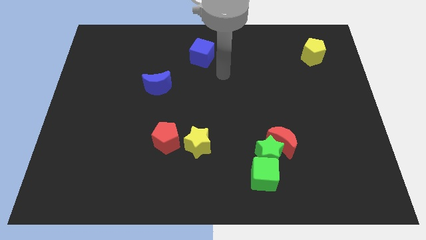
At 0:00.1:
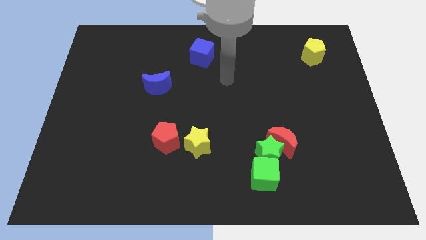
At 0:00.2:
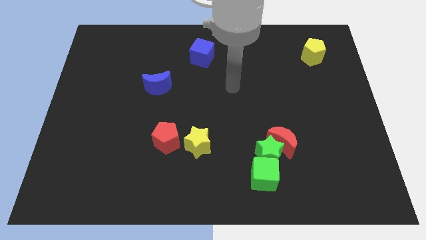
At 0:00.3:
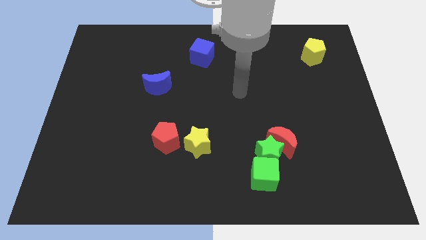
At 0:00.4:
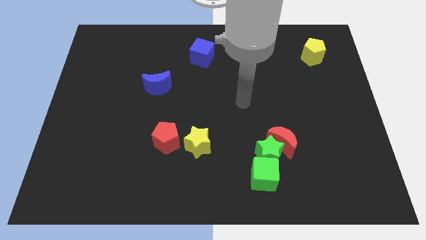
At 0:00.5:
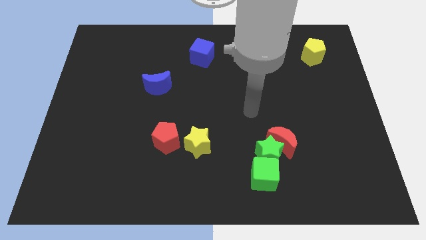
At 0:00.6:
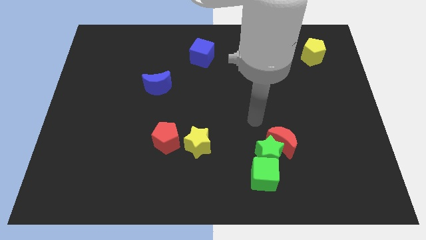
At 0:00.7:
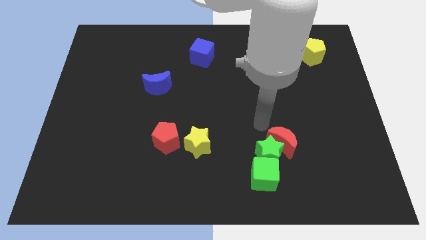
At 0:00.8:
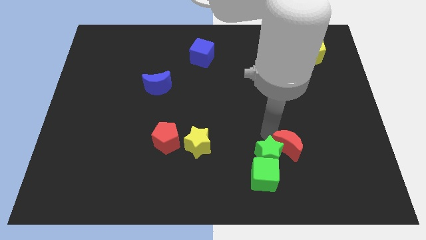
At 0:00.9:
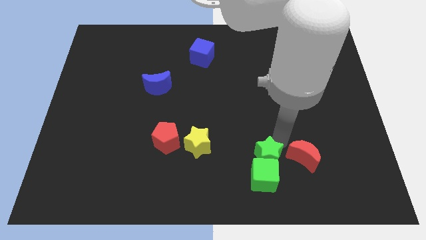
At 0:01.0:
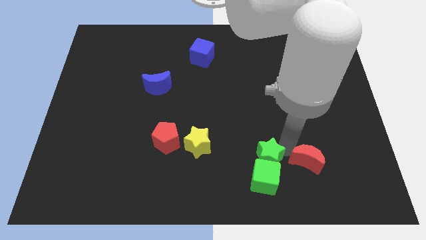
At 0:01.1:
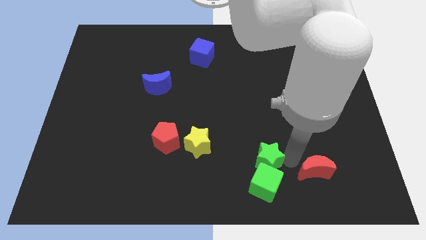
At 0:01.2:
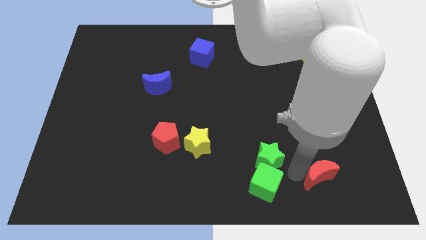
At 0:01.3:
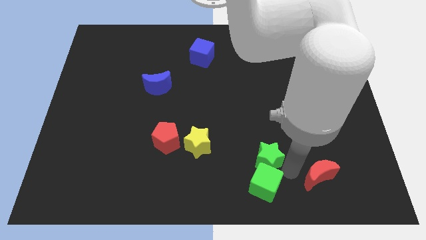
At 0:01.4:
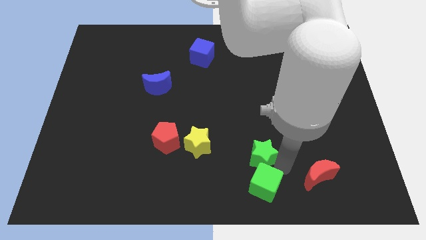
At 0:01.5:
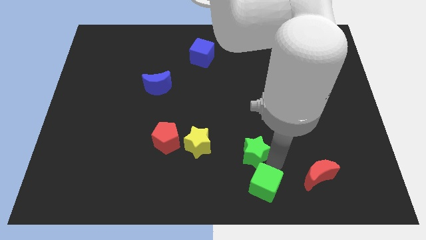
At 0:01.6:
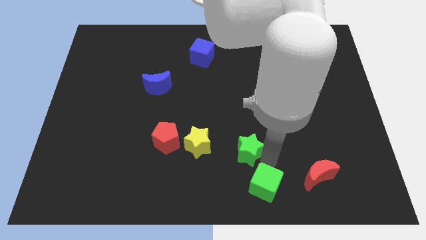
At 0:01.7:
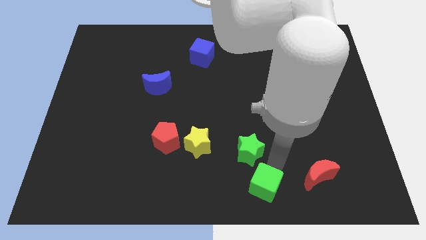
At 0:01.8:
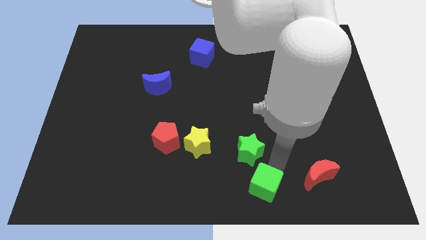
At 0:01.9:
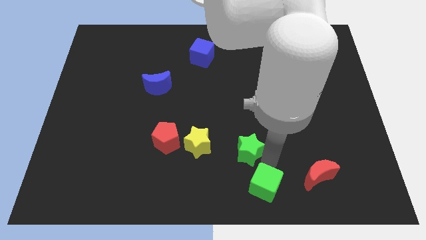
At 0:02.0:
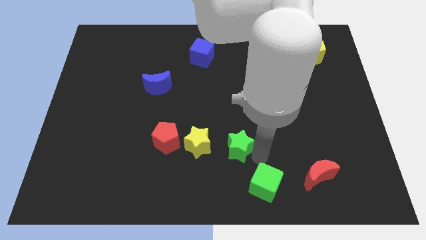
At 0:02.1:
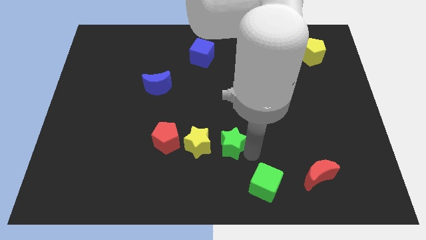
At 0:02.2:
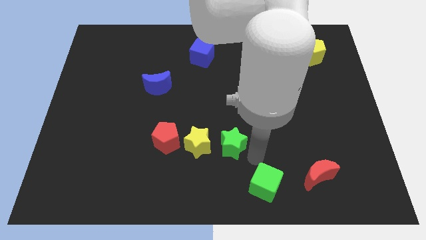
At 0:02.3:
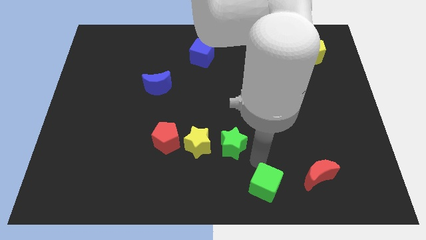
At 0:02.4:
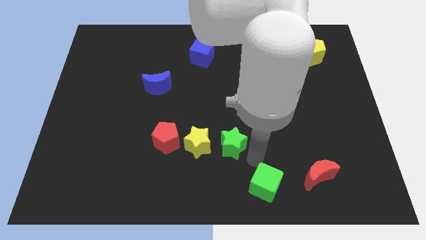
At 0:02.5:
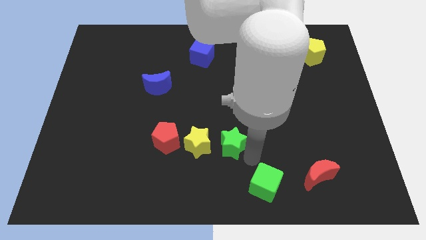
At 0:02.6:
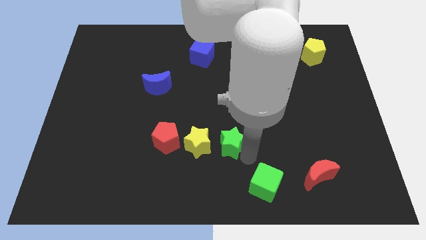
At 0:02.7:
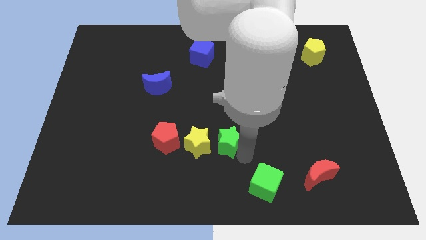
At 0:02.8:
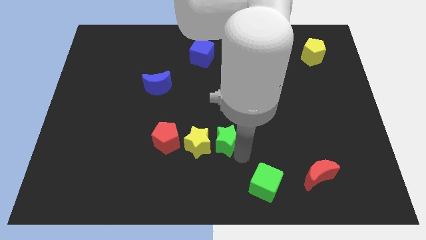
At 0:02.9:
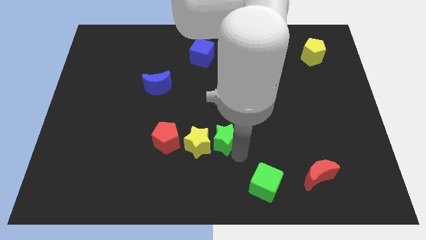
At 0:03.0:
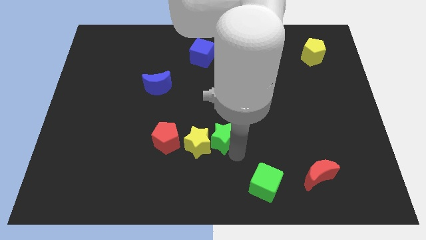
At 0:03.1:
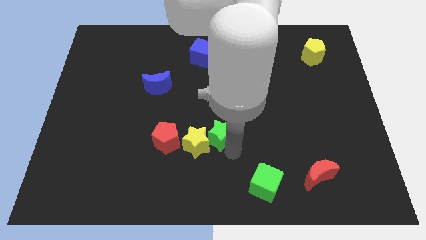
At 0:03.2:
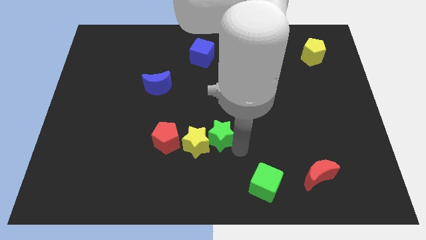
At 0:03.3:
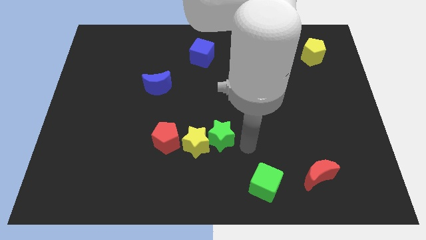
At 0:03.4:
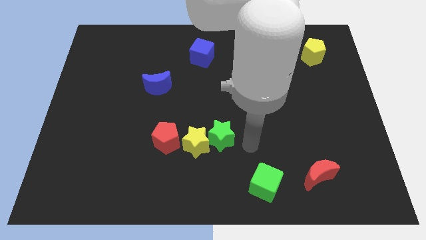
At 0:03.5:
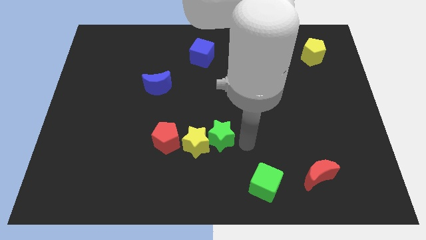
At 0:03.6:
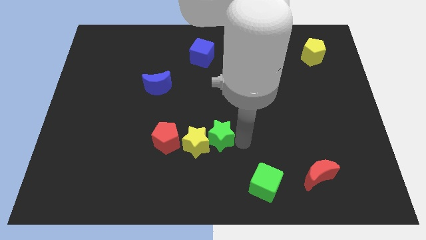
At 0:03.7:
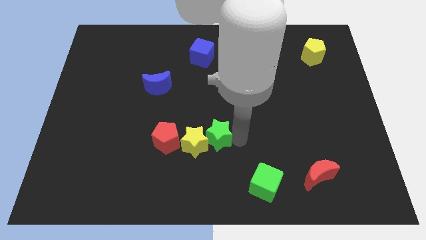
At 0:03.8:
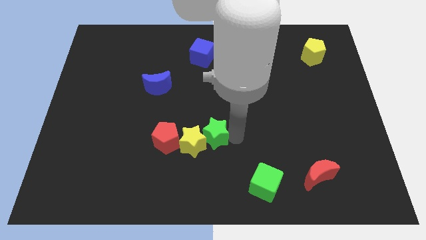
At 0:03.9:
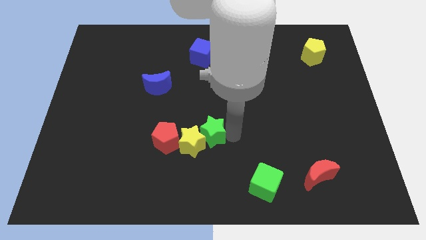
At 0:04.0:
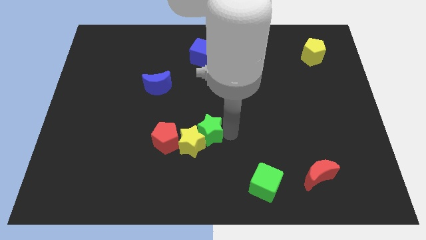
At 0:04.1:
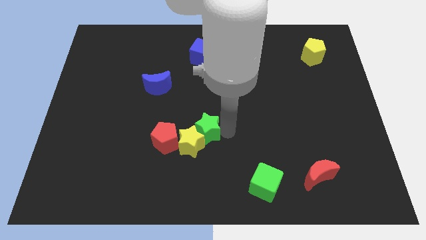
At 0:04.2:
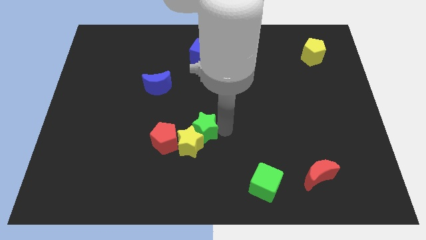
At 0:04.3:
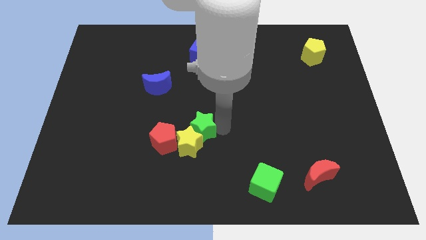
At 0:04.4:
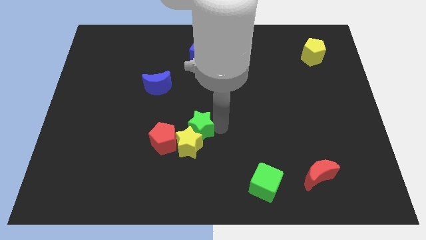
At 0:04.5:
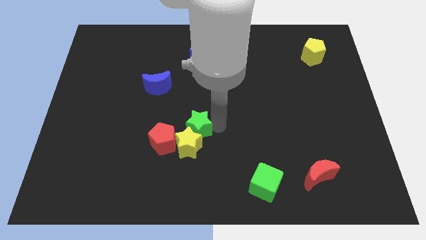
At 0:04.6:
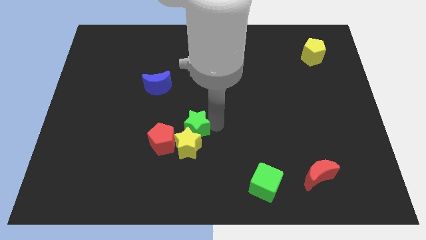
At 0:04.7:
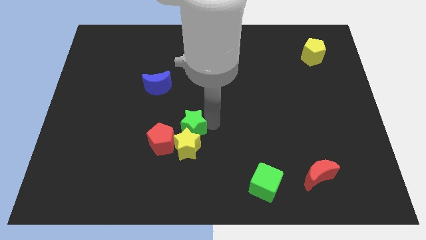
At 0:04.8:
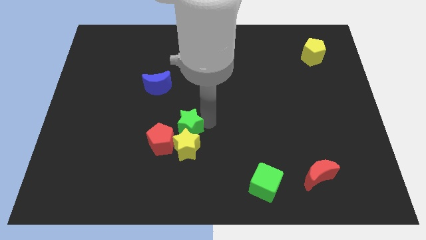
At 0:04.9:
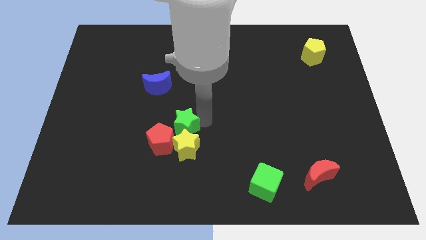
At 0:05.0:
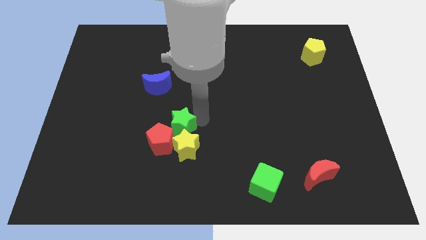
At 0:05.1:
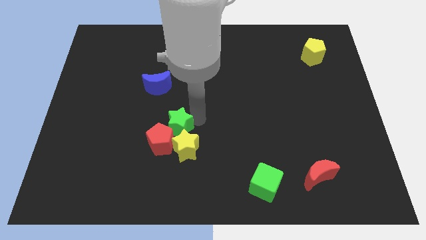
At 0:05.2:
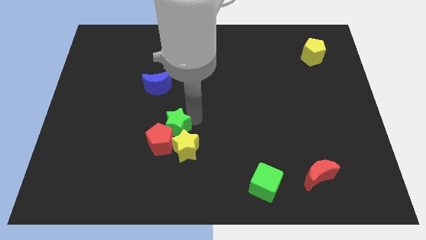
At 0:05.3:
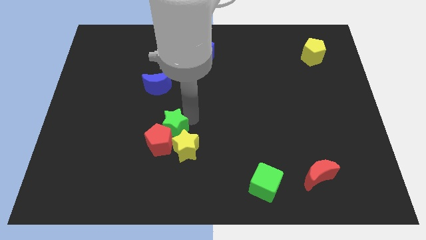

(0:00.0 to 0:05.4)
push the green star to the bottom side of the blue moon

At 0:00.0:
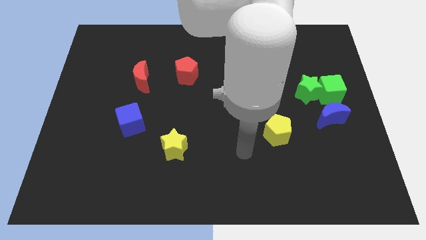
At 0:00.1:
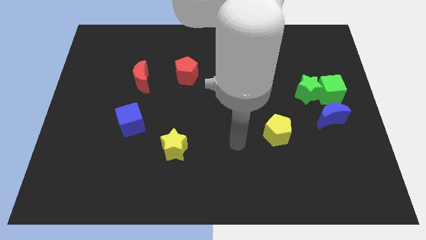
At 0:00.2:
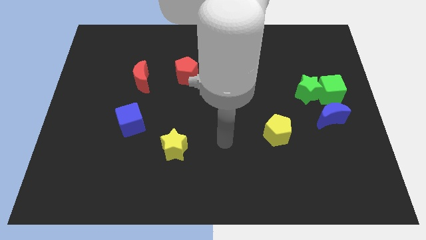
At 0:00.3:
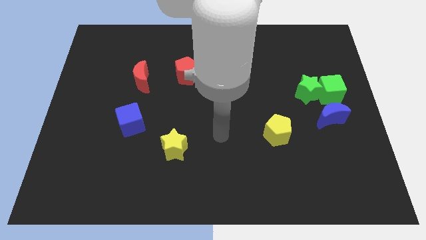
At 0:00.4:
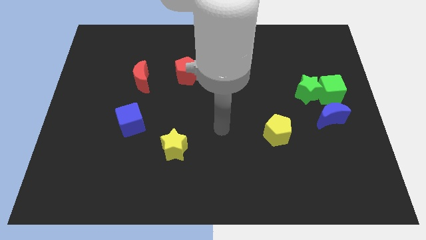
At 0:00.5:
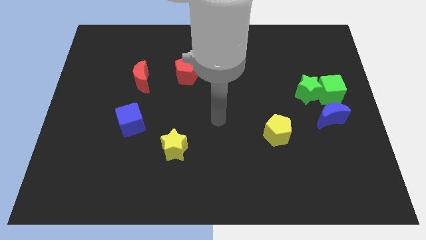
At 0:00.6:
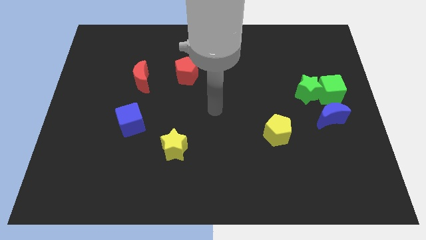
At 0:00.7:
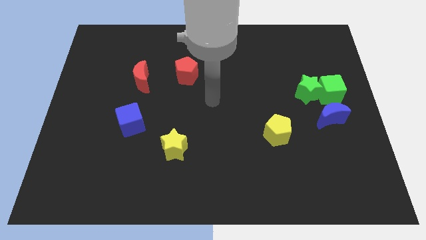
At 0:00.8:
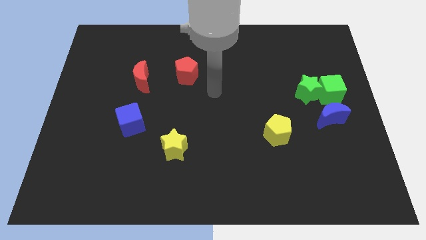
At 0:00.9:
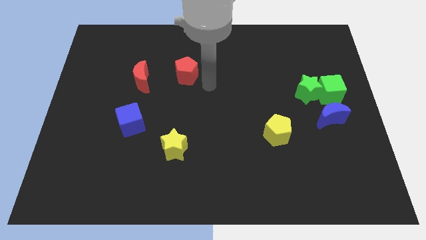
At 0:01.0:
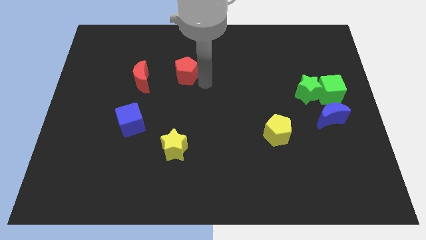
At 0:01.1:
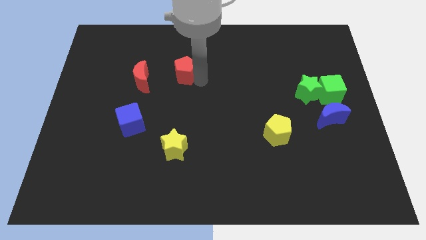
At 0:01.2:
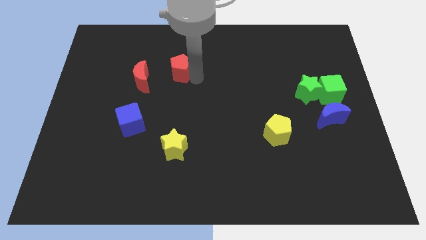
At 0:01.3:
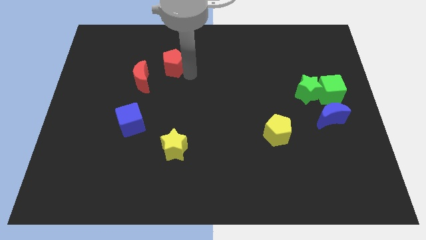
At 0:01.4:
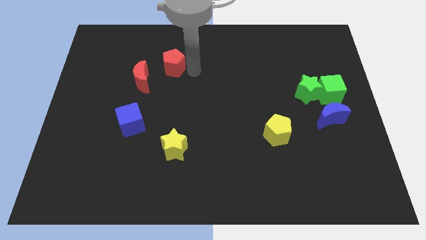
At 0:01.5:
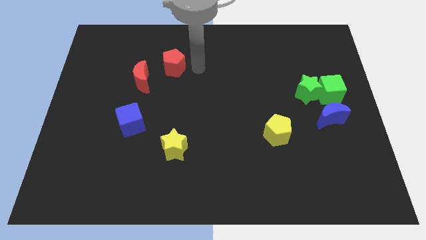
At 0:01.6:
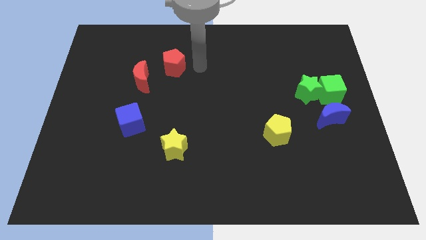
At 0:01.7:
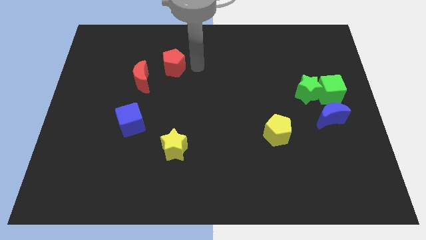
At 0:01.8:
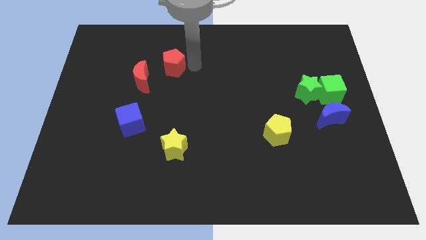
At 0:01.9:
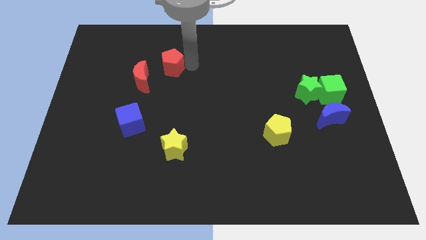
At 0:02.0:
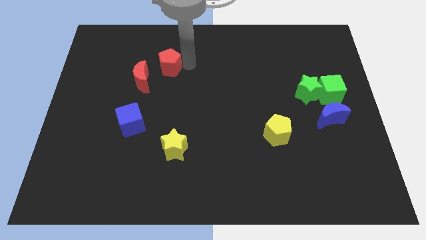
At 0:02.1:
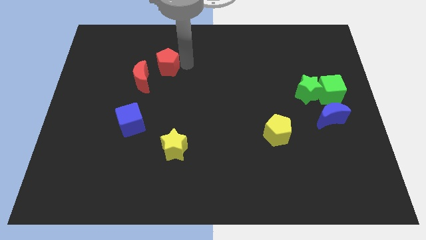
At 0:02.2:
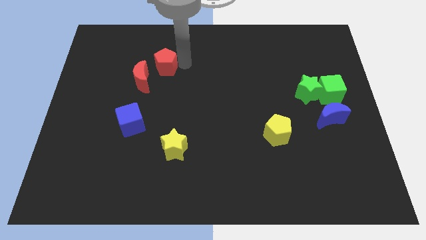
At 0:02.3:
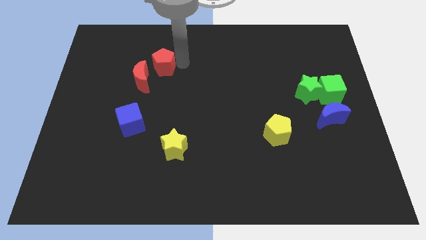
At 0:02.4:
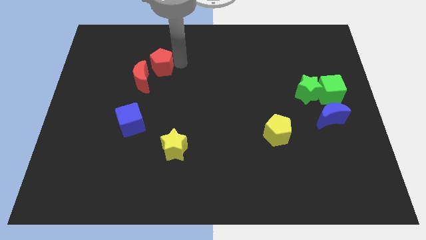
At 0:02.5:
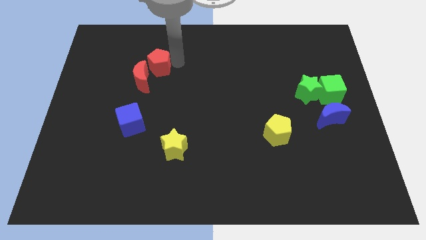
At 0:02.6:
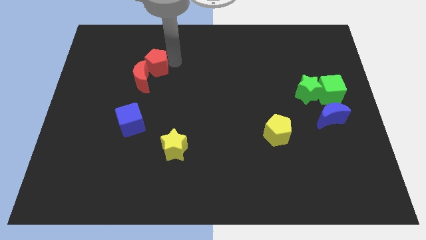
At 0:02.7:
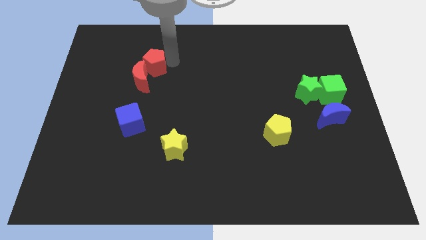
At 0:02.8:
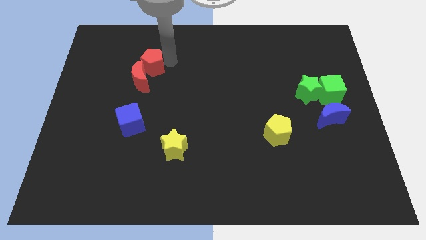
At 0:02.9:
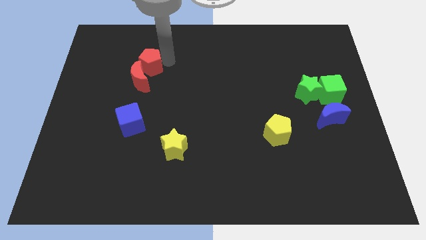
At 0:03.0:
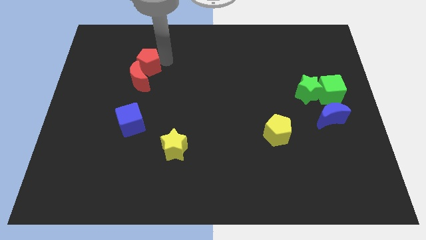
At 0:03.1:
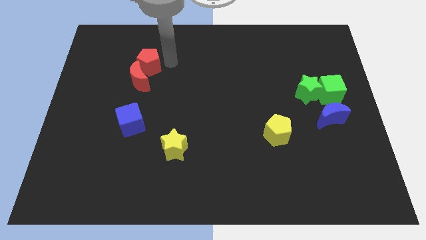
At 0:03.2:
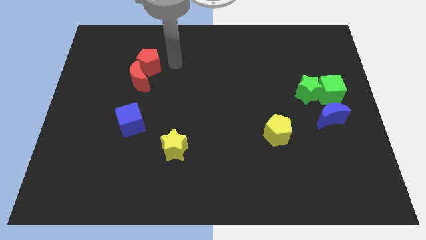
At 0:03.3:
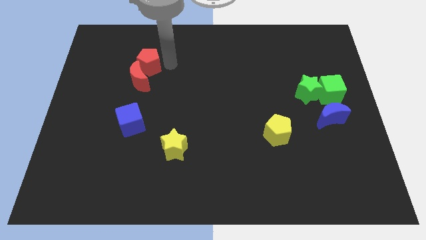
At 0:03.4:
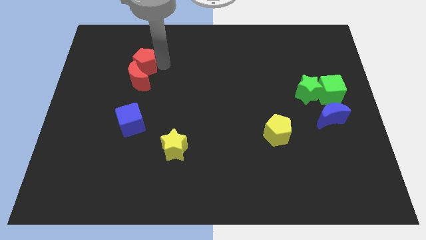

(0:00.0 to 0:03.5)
push the red pentagon to the top left of the red moon
